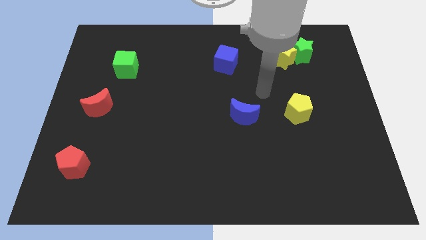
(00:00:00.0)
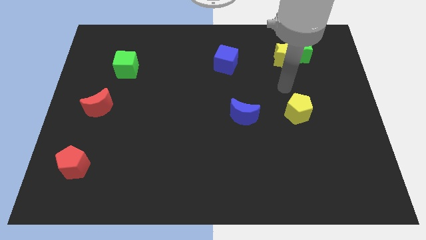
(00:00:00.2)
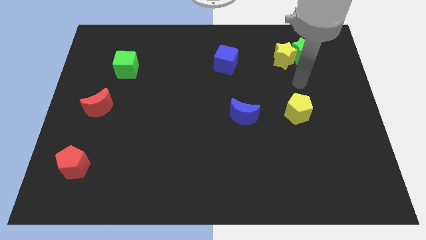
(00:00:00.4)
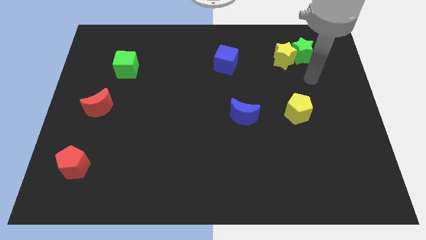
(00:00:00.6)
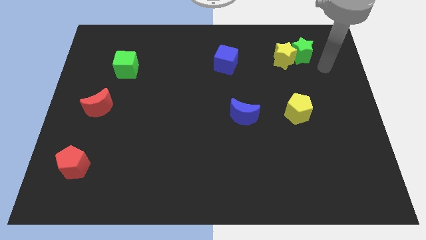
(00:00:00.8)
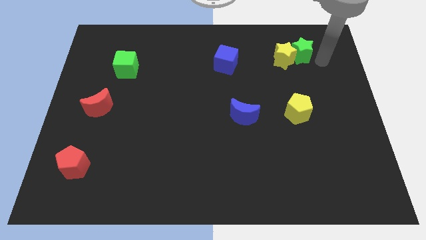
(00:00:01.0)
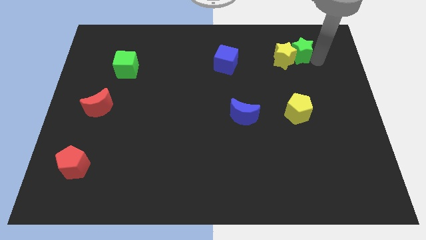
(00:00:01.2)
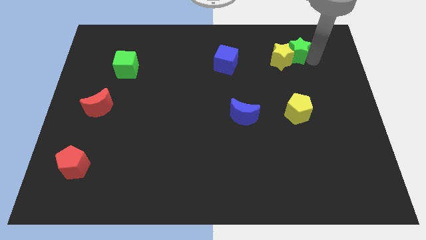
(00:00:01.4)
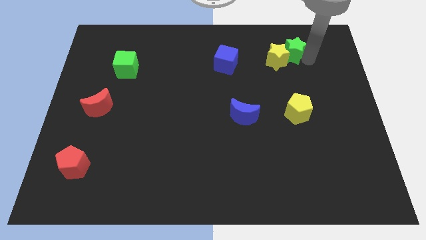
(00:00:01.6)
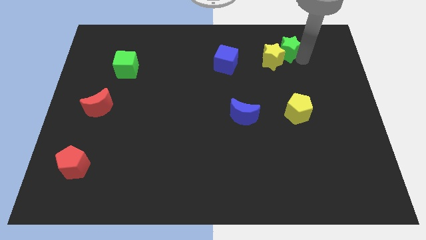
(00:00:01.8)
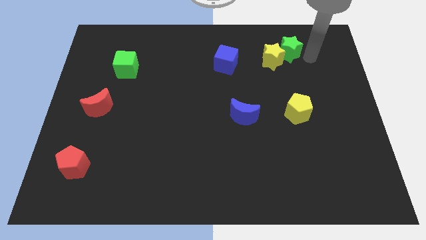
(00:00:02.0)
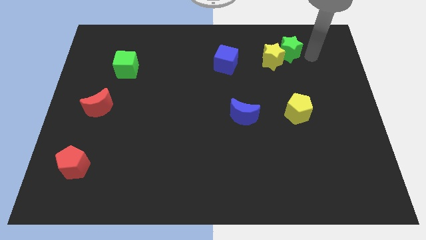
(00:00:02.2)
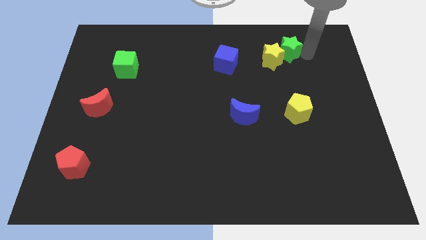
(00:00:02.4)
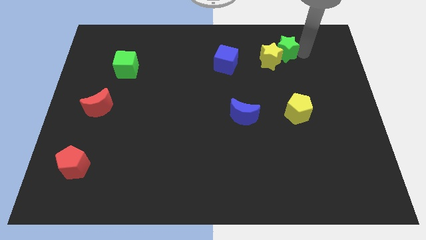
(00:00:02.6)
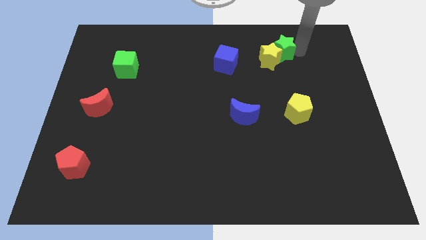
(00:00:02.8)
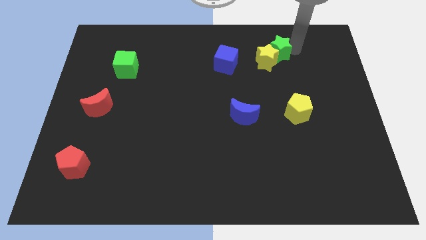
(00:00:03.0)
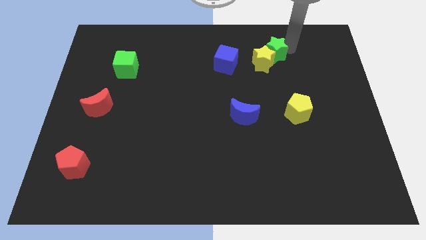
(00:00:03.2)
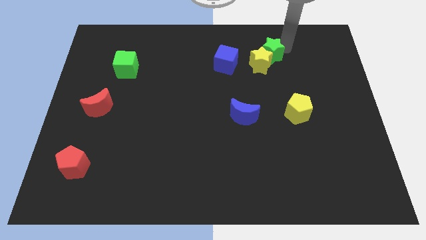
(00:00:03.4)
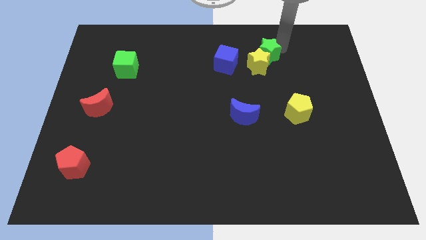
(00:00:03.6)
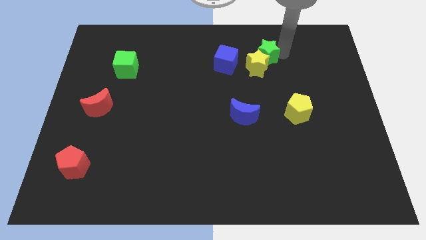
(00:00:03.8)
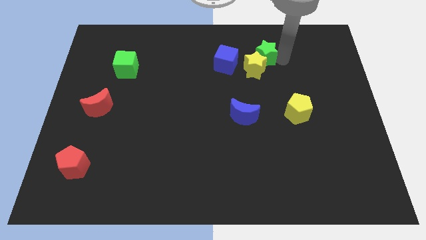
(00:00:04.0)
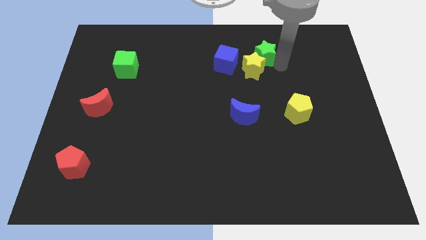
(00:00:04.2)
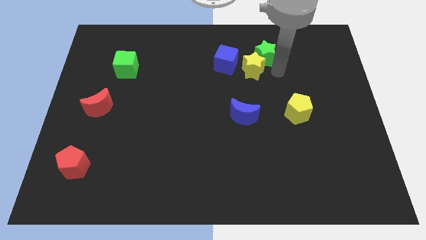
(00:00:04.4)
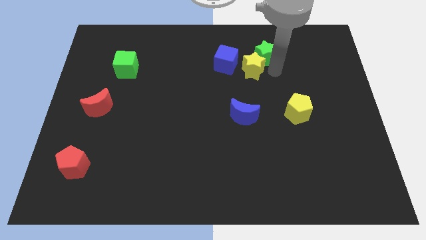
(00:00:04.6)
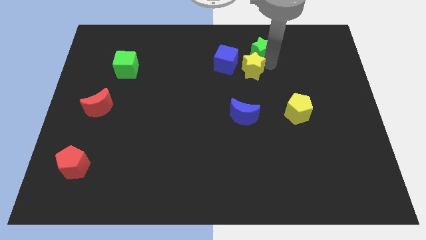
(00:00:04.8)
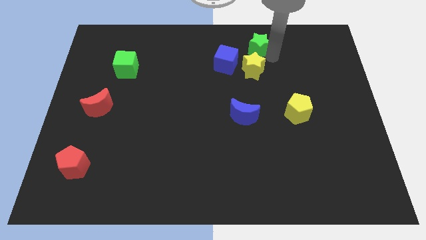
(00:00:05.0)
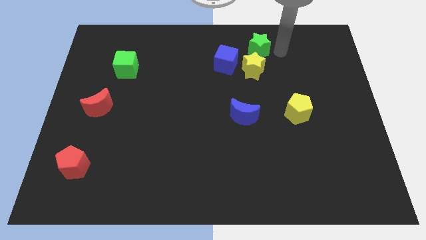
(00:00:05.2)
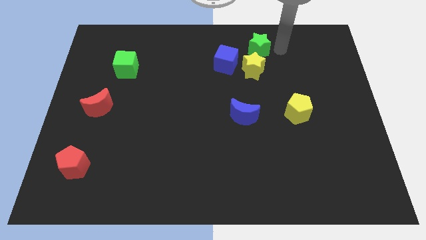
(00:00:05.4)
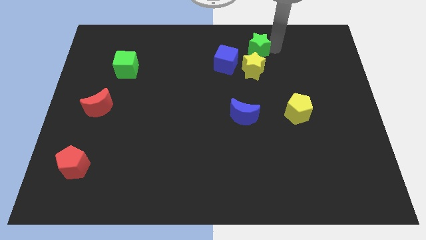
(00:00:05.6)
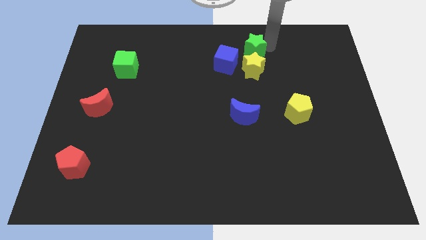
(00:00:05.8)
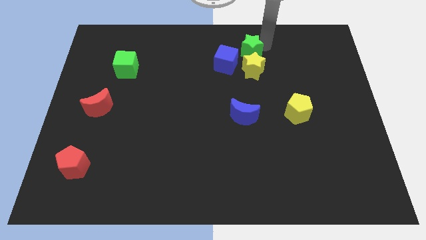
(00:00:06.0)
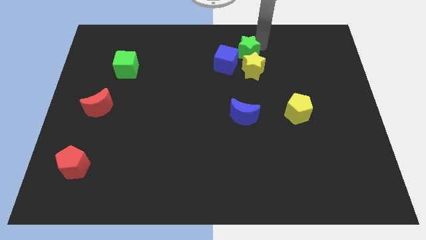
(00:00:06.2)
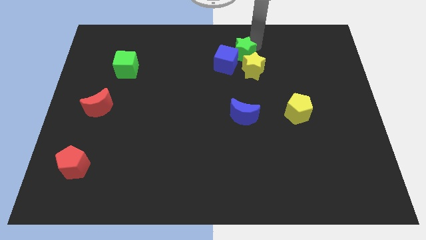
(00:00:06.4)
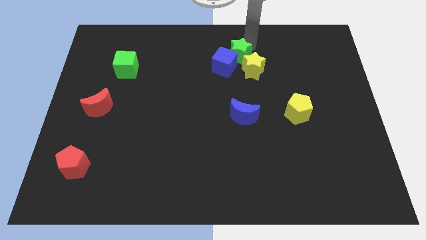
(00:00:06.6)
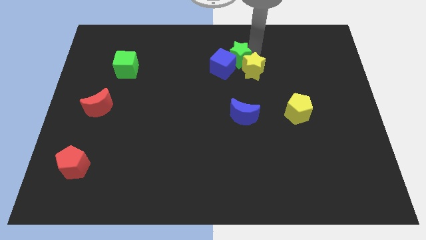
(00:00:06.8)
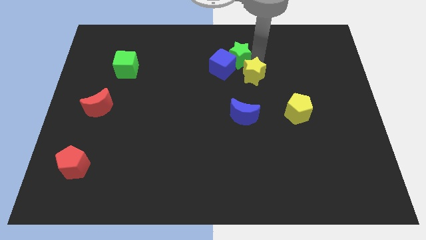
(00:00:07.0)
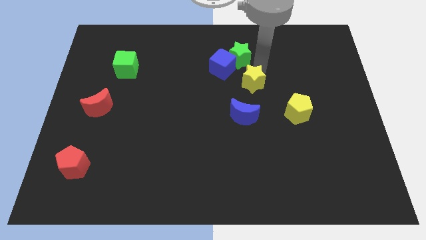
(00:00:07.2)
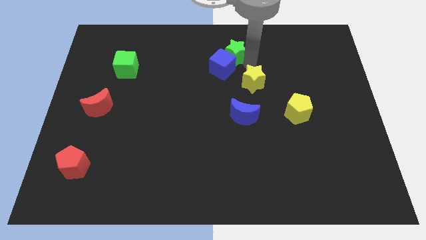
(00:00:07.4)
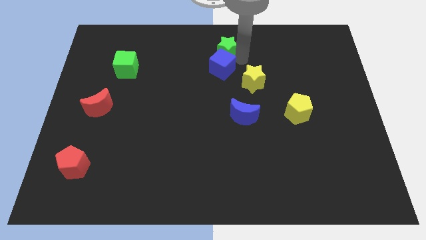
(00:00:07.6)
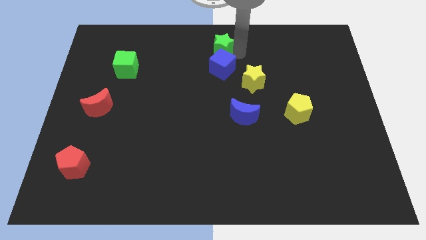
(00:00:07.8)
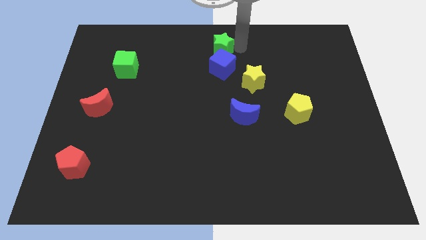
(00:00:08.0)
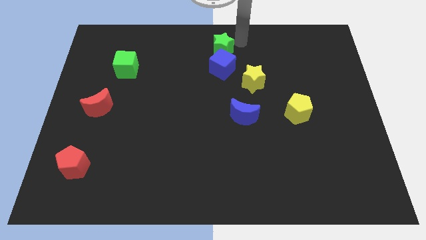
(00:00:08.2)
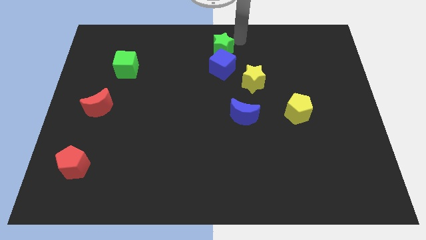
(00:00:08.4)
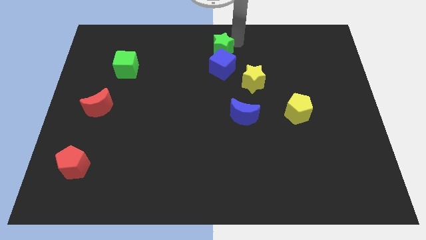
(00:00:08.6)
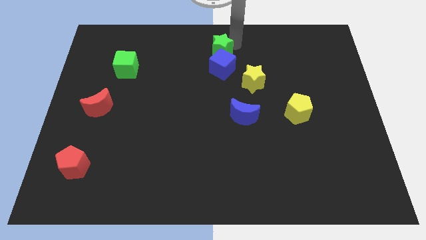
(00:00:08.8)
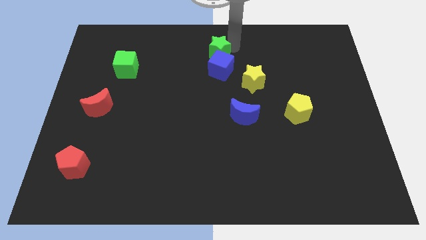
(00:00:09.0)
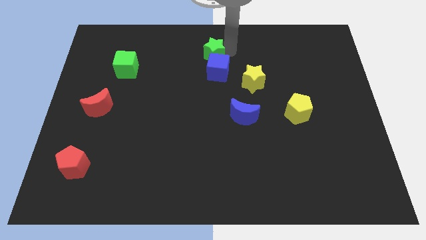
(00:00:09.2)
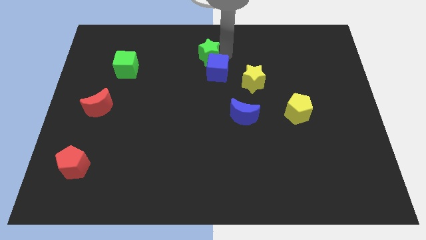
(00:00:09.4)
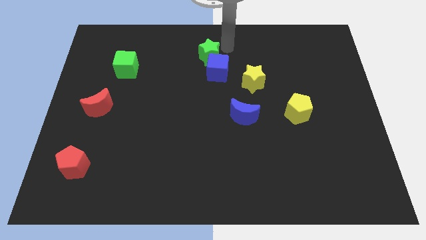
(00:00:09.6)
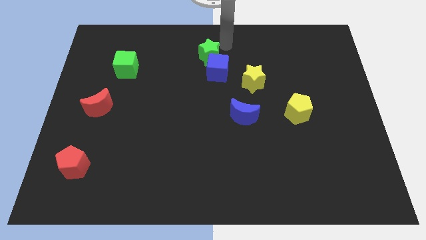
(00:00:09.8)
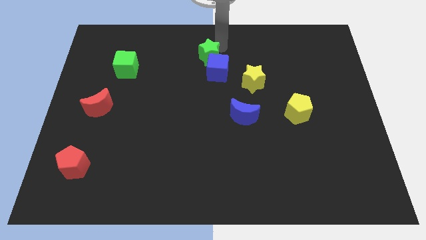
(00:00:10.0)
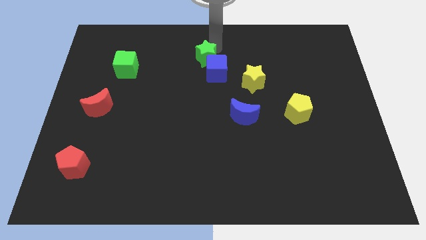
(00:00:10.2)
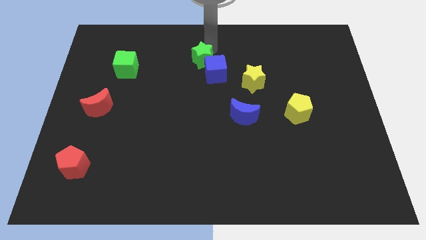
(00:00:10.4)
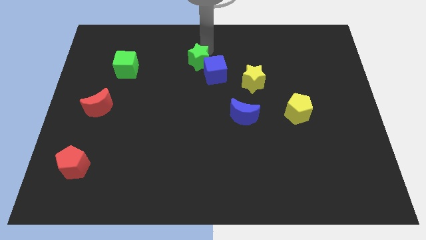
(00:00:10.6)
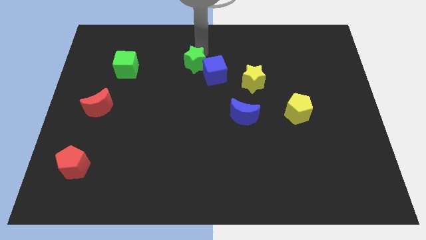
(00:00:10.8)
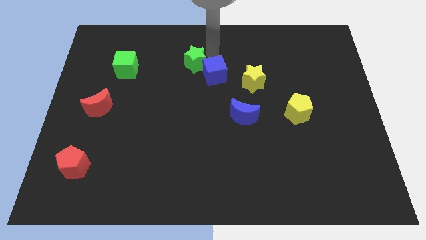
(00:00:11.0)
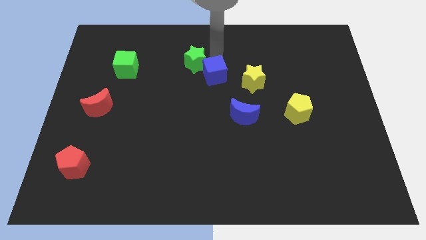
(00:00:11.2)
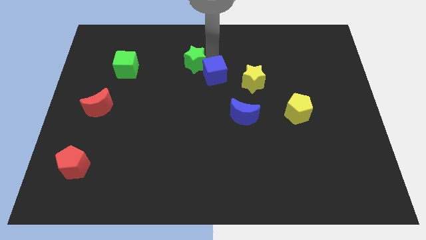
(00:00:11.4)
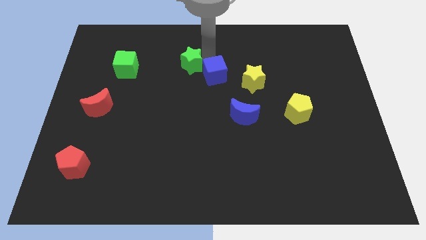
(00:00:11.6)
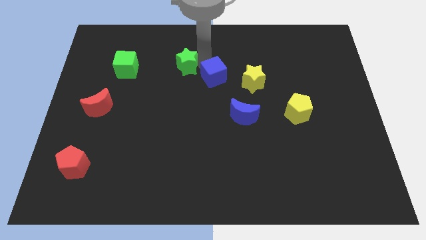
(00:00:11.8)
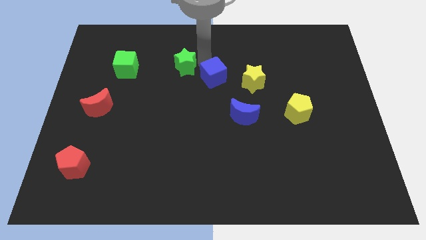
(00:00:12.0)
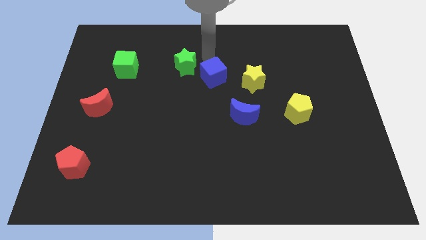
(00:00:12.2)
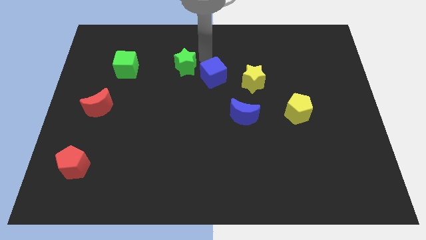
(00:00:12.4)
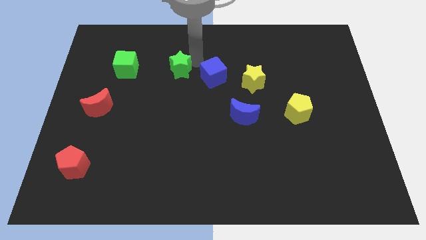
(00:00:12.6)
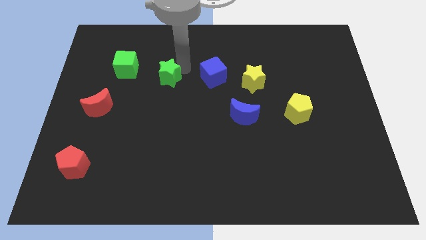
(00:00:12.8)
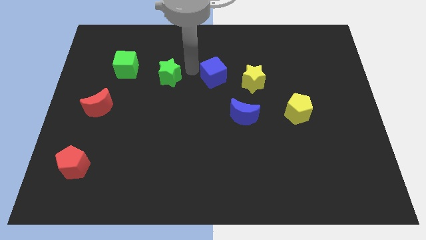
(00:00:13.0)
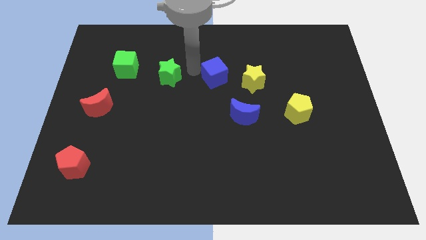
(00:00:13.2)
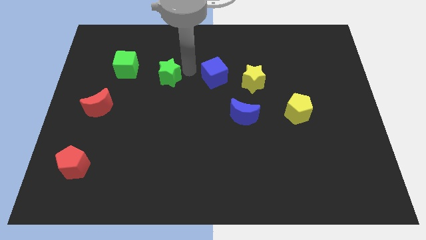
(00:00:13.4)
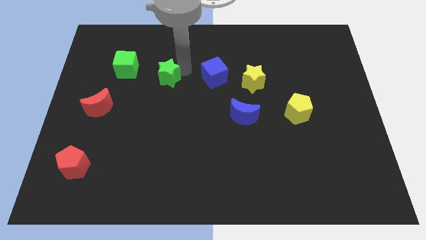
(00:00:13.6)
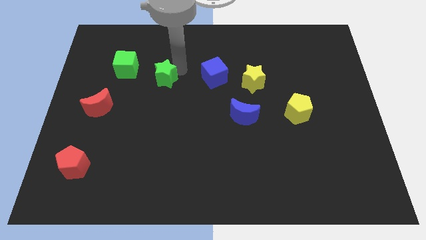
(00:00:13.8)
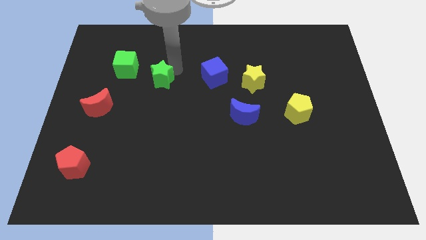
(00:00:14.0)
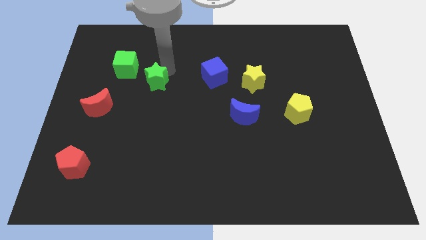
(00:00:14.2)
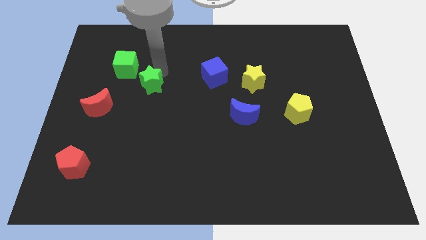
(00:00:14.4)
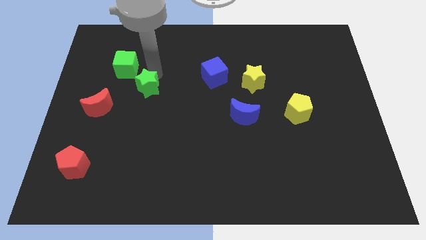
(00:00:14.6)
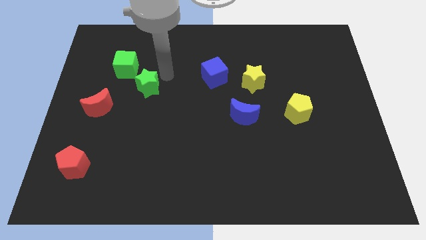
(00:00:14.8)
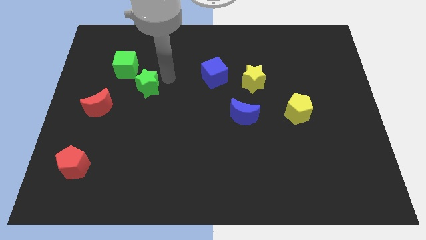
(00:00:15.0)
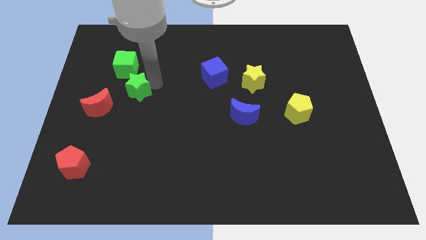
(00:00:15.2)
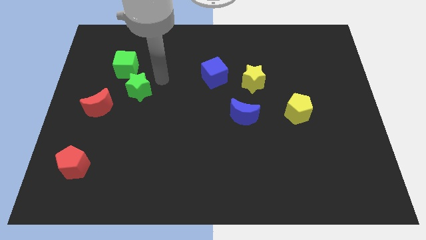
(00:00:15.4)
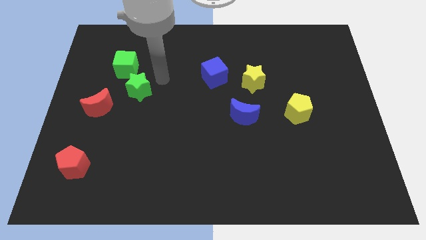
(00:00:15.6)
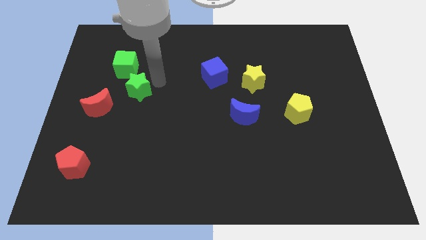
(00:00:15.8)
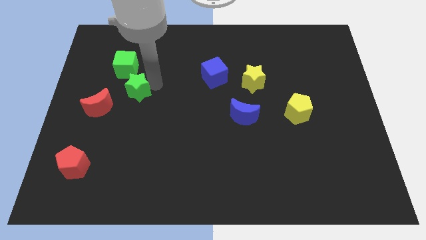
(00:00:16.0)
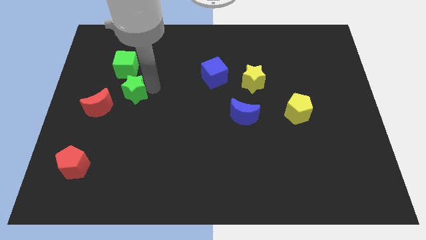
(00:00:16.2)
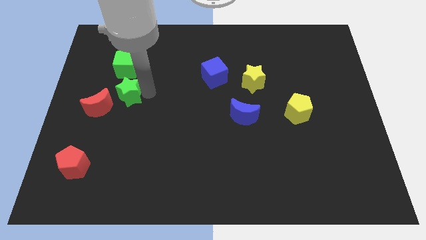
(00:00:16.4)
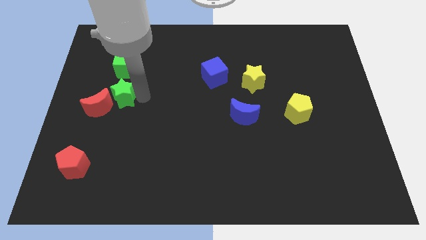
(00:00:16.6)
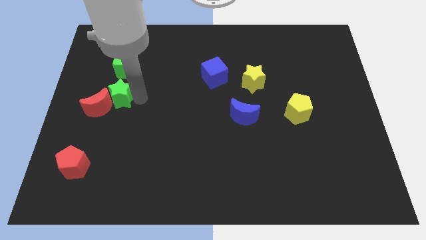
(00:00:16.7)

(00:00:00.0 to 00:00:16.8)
put the green star next to the red moon
